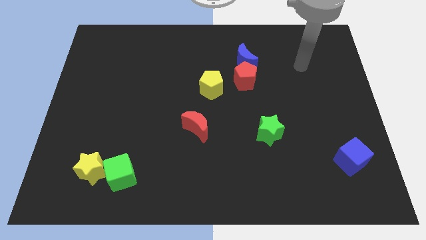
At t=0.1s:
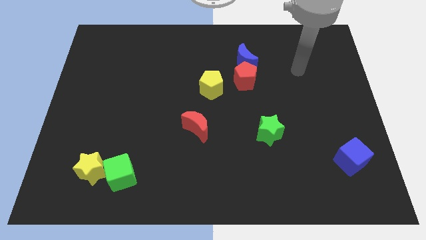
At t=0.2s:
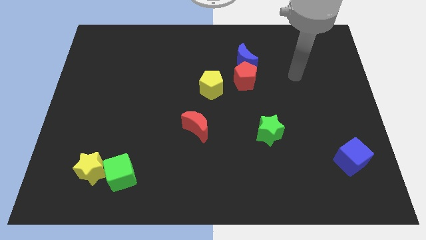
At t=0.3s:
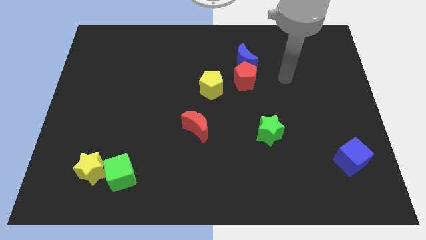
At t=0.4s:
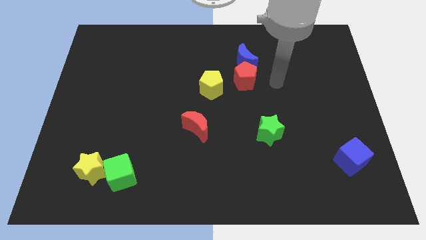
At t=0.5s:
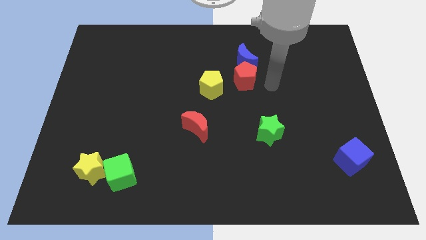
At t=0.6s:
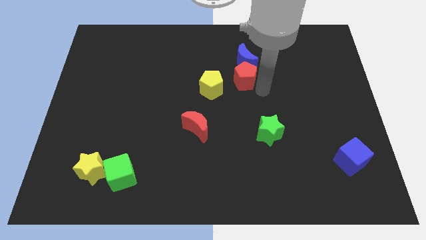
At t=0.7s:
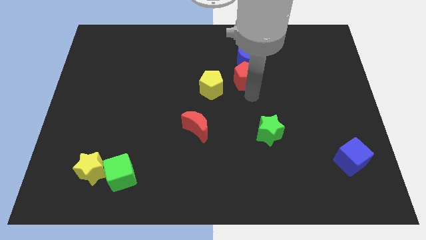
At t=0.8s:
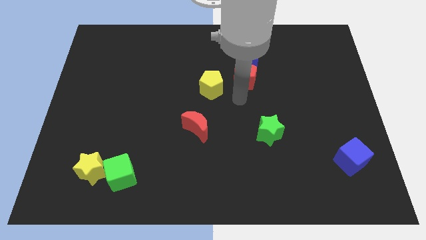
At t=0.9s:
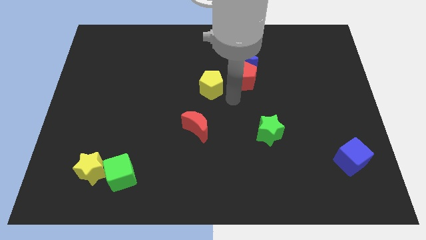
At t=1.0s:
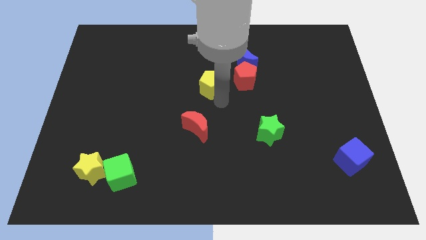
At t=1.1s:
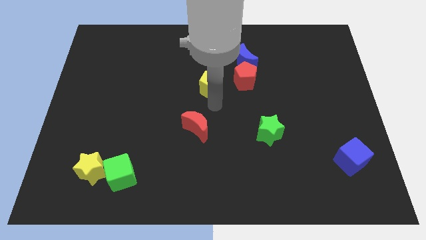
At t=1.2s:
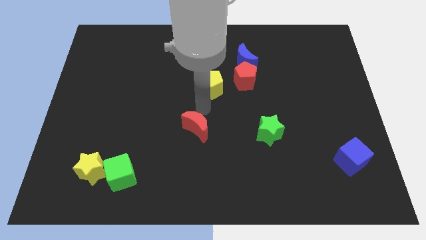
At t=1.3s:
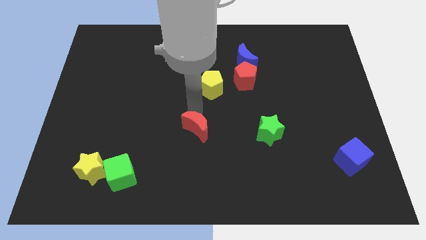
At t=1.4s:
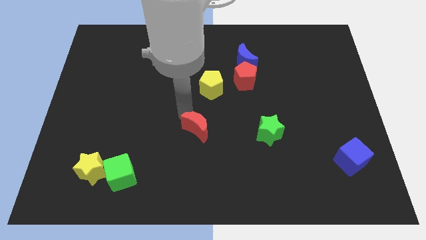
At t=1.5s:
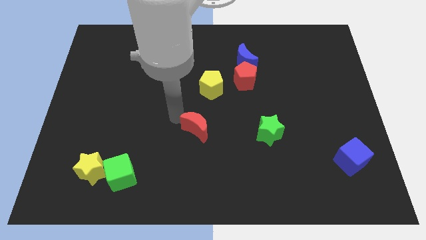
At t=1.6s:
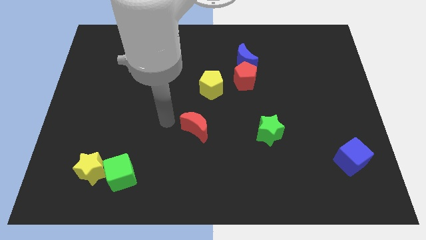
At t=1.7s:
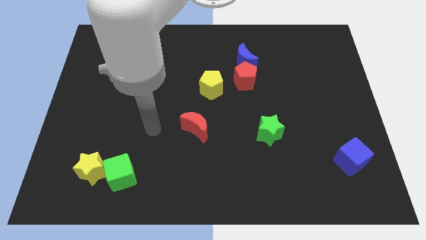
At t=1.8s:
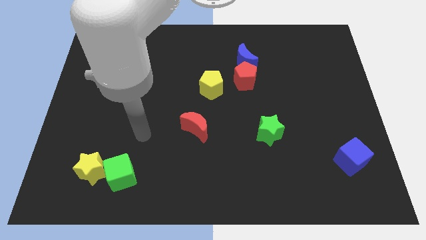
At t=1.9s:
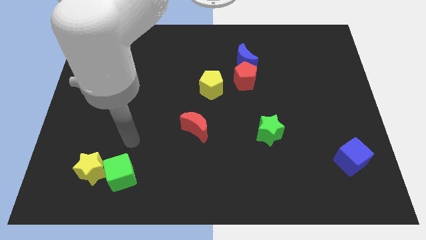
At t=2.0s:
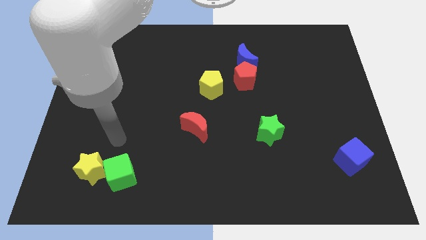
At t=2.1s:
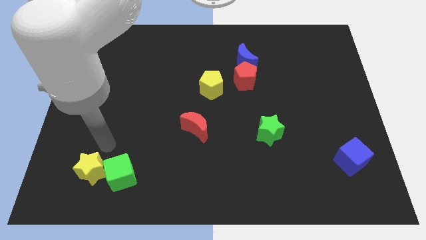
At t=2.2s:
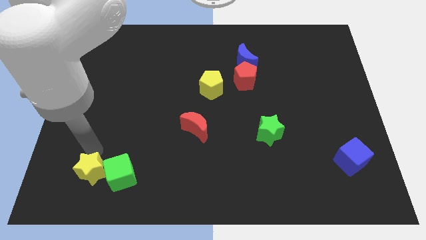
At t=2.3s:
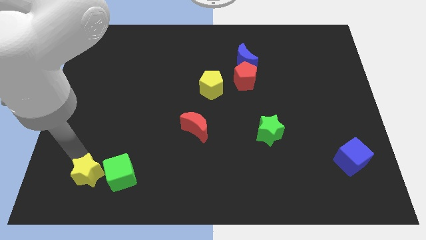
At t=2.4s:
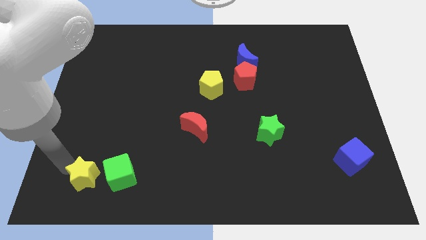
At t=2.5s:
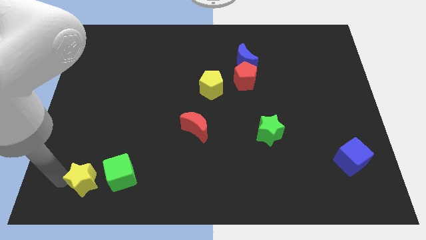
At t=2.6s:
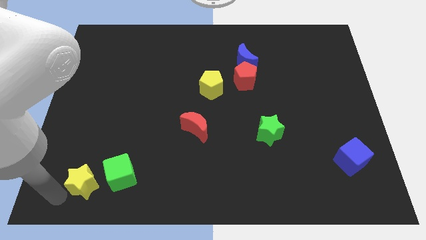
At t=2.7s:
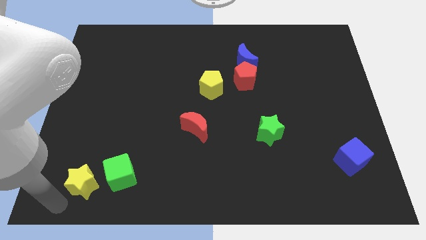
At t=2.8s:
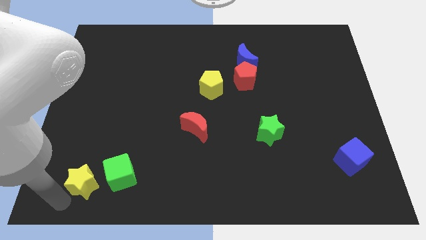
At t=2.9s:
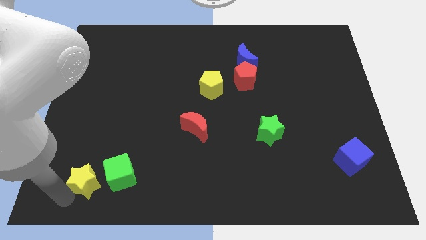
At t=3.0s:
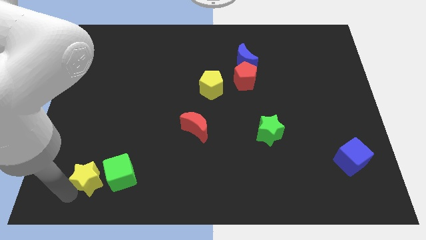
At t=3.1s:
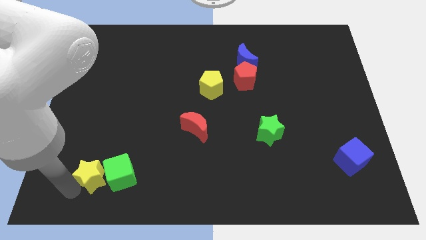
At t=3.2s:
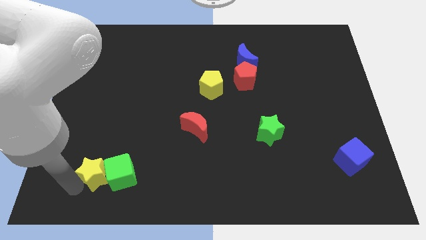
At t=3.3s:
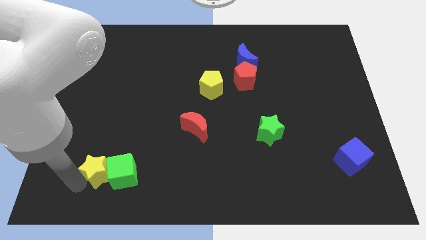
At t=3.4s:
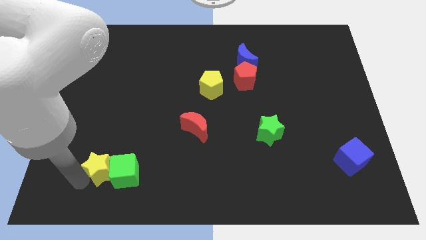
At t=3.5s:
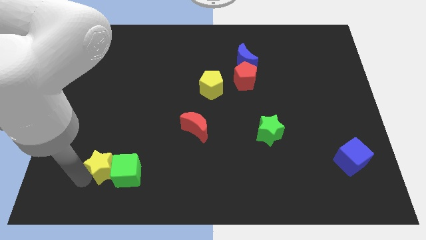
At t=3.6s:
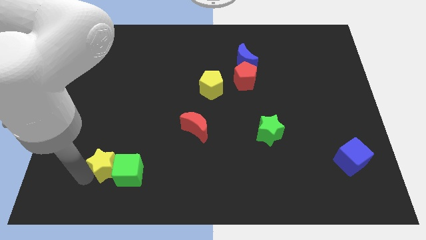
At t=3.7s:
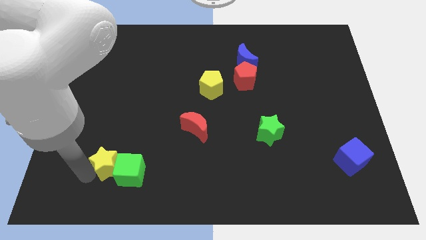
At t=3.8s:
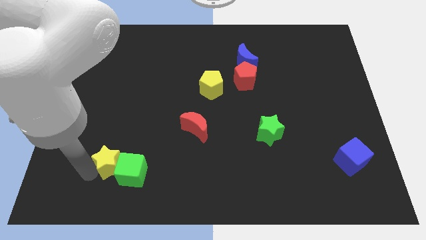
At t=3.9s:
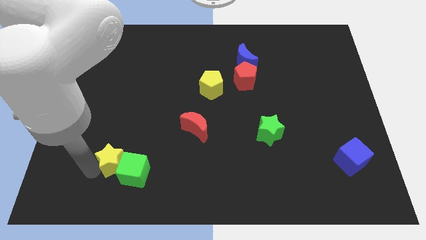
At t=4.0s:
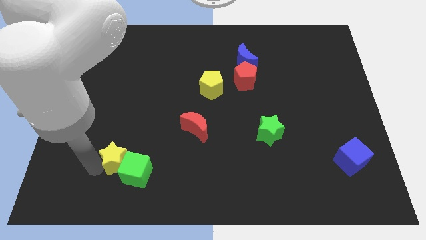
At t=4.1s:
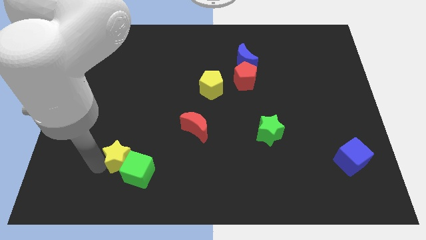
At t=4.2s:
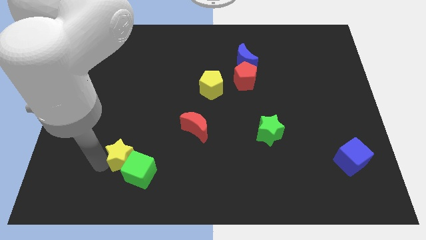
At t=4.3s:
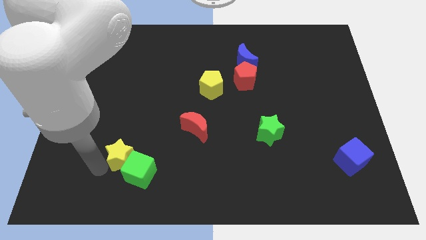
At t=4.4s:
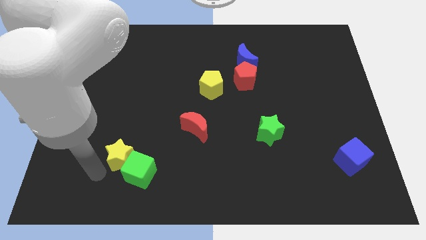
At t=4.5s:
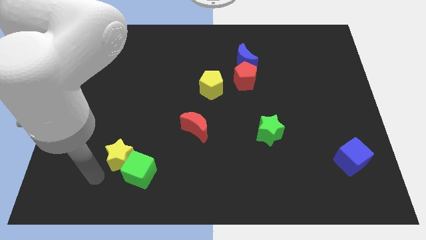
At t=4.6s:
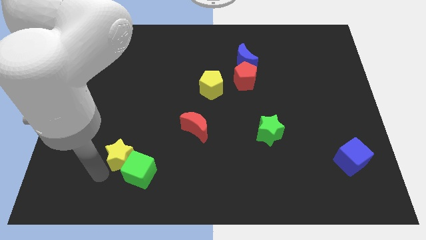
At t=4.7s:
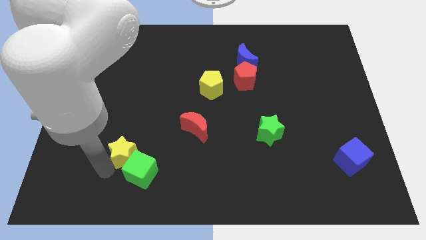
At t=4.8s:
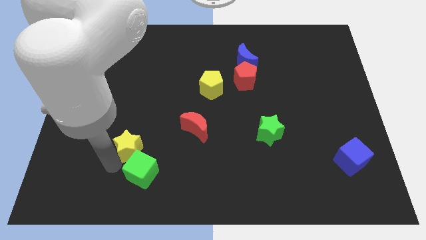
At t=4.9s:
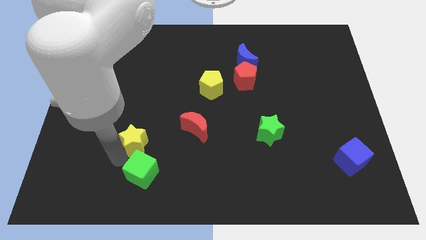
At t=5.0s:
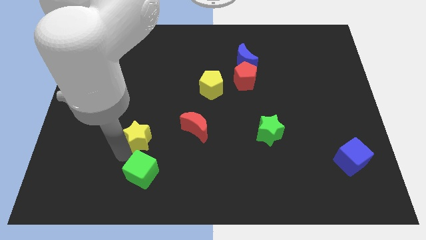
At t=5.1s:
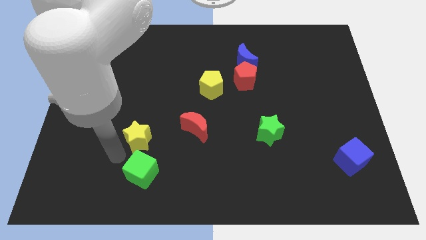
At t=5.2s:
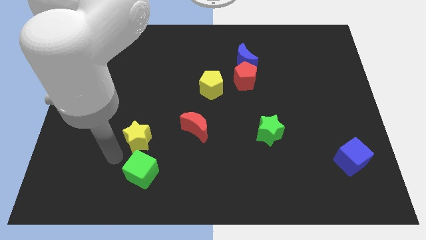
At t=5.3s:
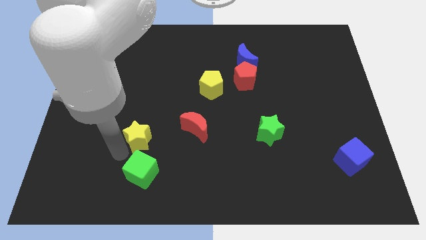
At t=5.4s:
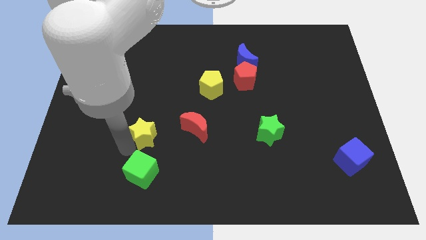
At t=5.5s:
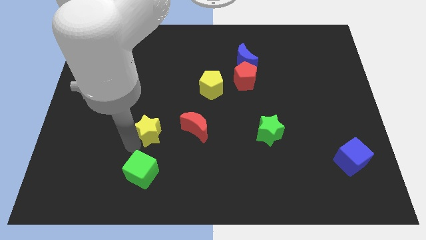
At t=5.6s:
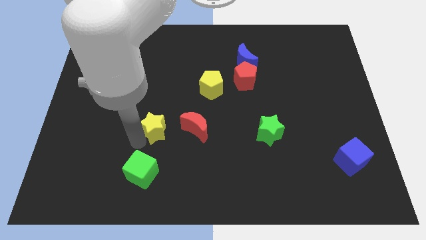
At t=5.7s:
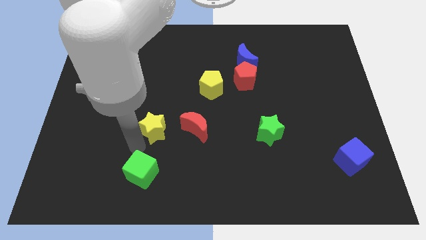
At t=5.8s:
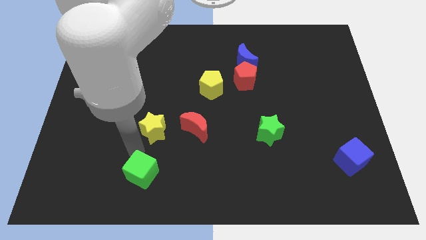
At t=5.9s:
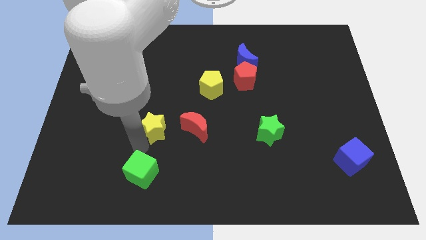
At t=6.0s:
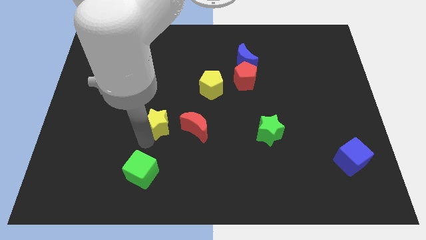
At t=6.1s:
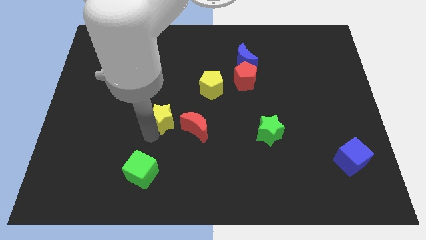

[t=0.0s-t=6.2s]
put the yellow star diagonally up and to the left of the red moon

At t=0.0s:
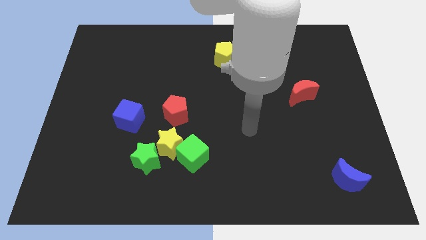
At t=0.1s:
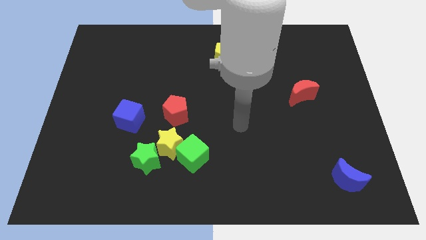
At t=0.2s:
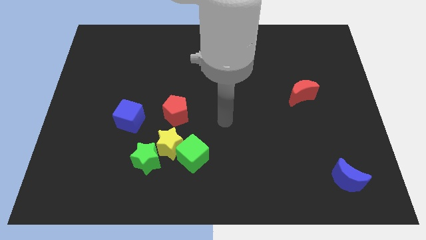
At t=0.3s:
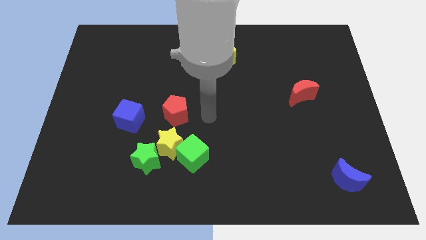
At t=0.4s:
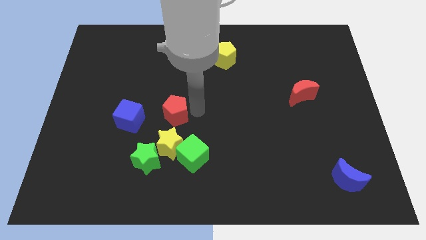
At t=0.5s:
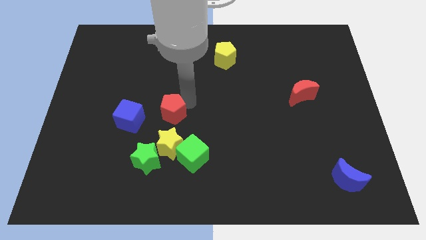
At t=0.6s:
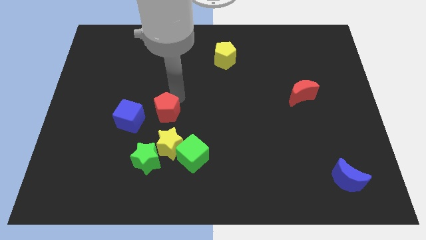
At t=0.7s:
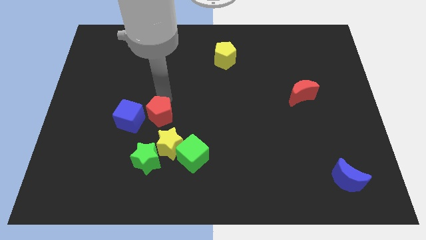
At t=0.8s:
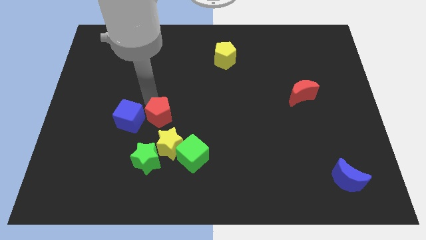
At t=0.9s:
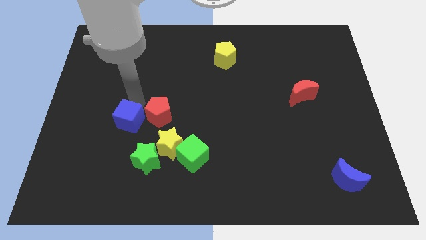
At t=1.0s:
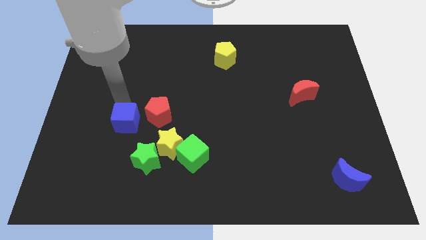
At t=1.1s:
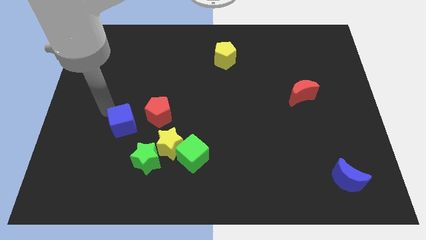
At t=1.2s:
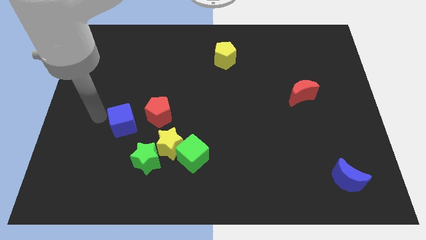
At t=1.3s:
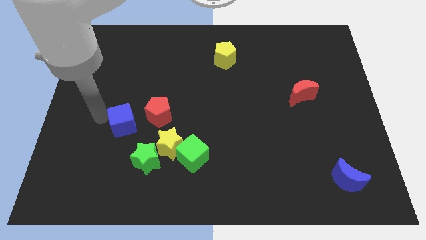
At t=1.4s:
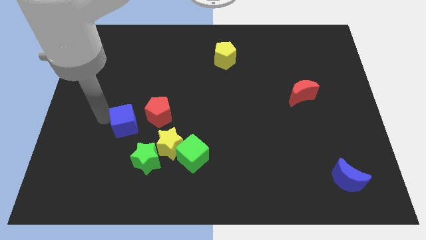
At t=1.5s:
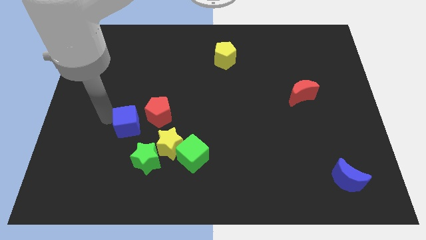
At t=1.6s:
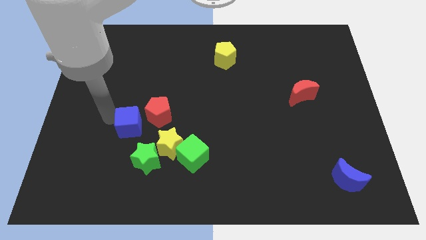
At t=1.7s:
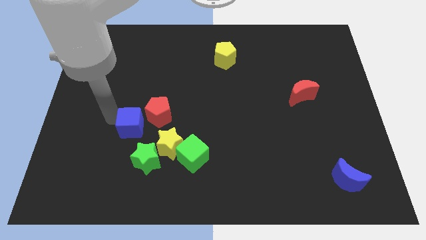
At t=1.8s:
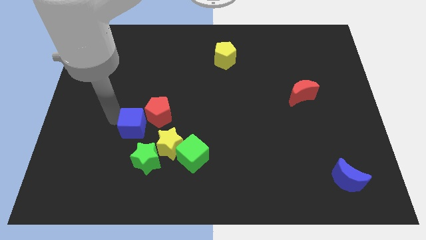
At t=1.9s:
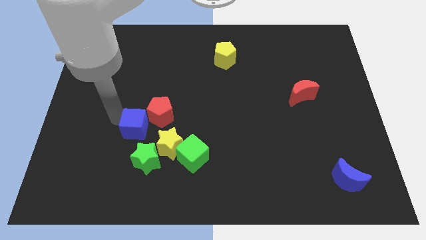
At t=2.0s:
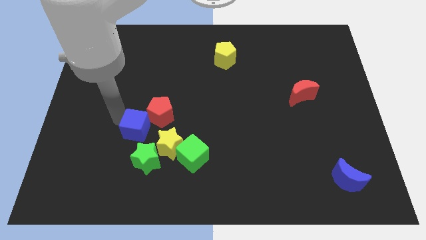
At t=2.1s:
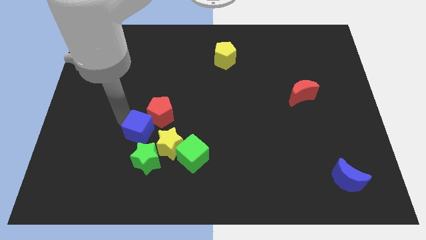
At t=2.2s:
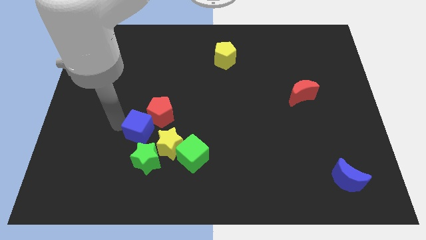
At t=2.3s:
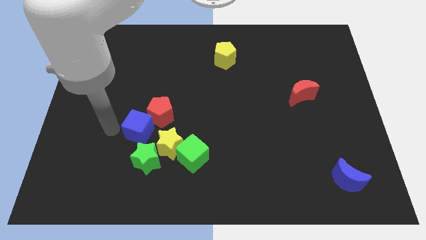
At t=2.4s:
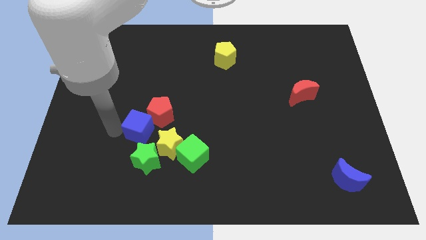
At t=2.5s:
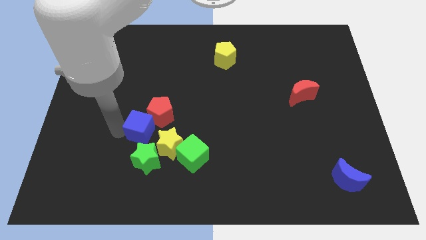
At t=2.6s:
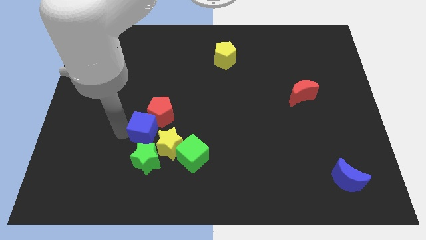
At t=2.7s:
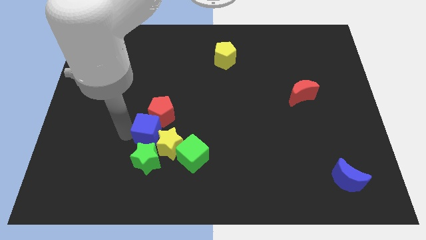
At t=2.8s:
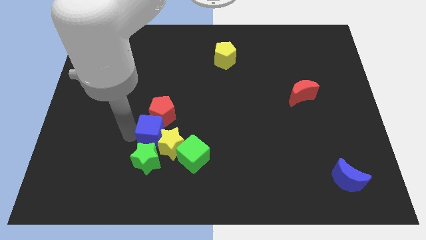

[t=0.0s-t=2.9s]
push the blue cube diagonally up and to the right of the green star
